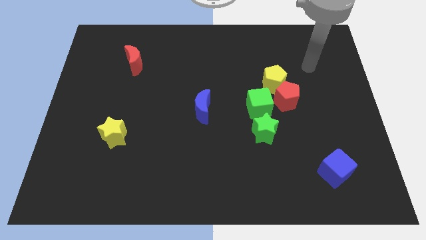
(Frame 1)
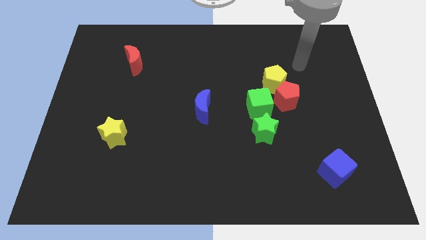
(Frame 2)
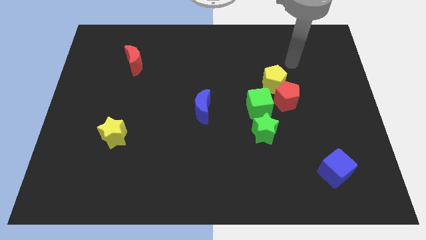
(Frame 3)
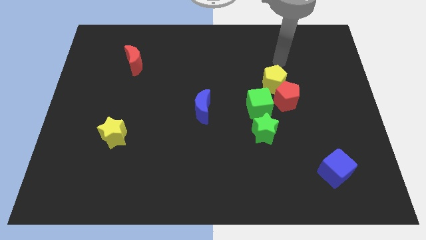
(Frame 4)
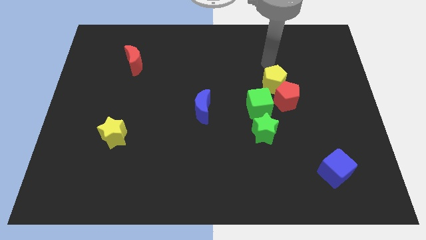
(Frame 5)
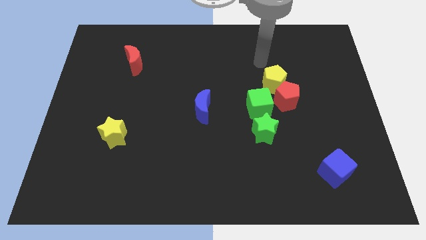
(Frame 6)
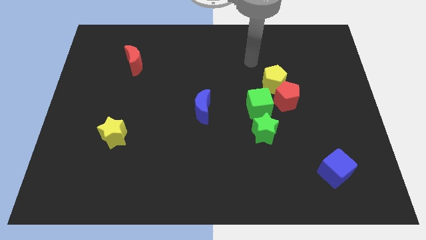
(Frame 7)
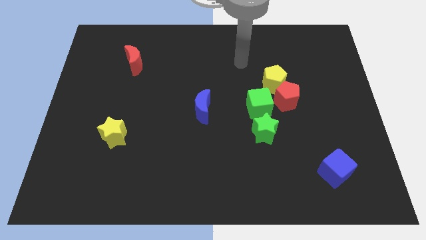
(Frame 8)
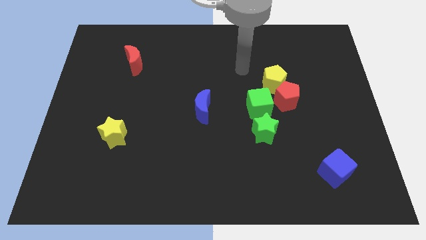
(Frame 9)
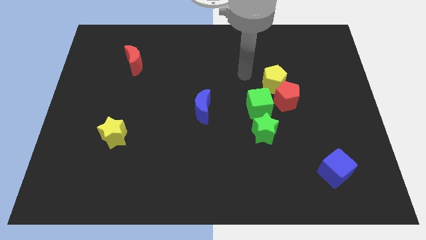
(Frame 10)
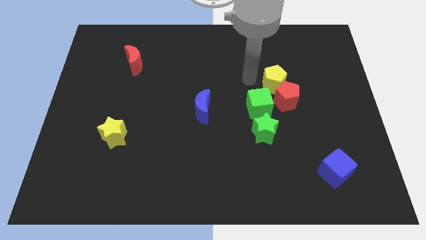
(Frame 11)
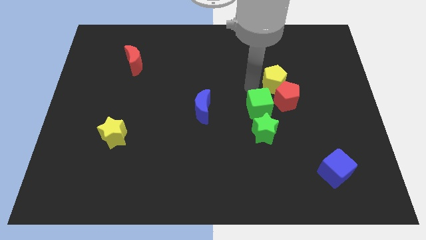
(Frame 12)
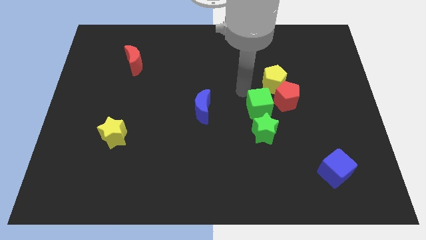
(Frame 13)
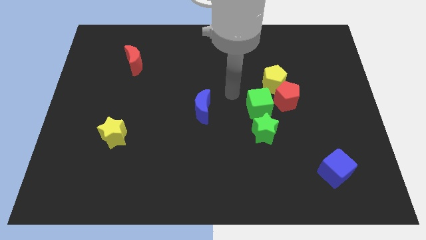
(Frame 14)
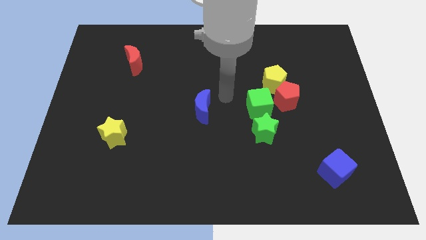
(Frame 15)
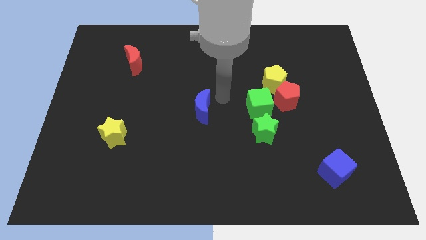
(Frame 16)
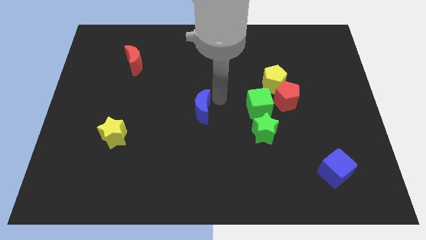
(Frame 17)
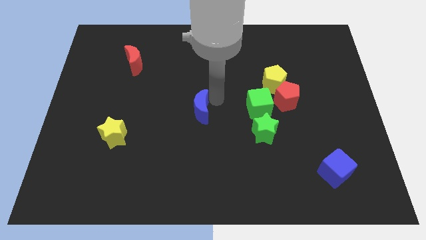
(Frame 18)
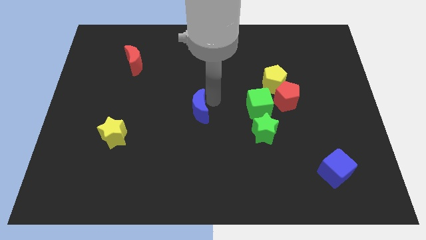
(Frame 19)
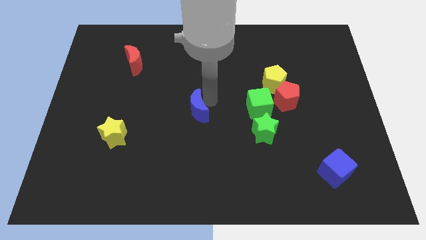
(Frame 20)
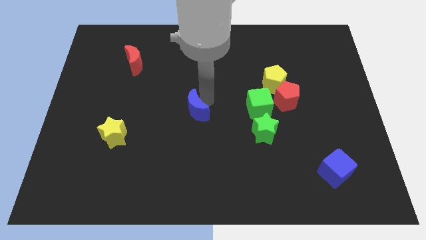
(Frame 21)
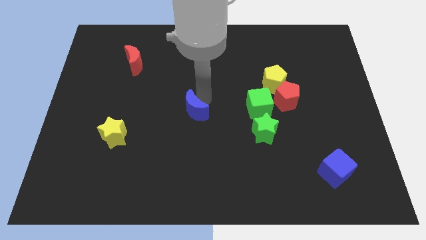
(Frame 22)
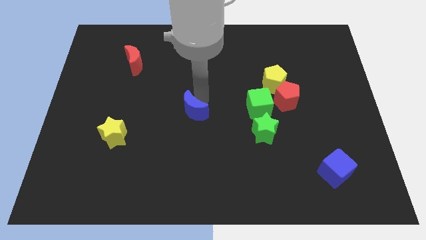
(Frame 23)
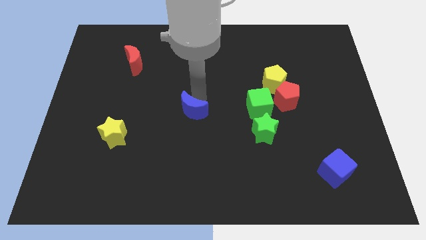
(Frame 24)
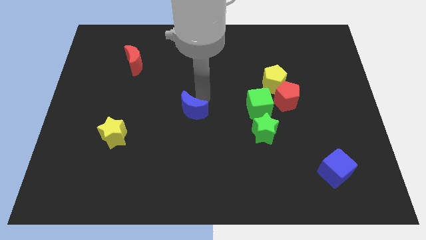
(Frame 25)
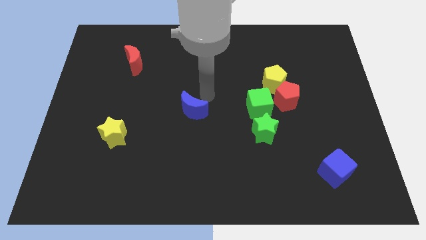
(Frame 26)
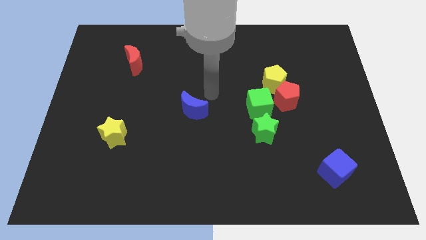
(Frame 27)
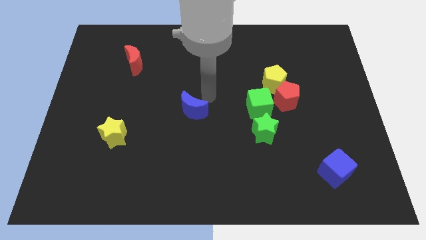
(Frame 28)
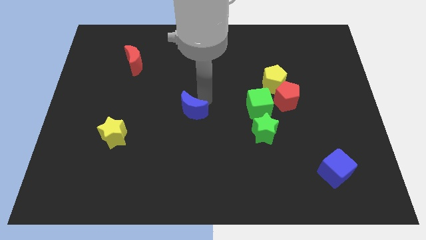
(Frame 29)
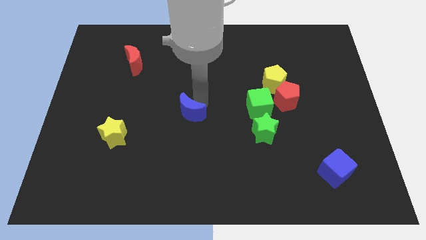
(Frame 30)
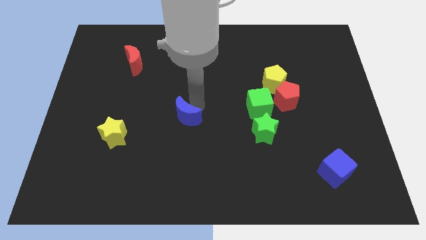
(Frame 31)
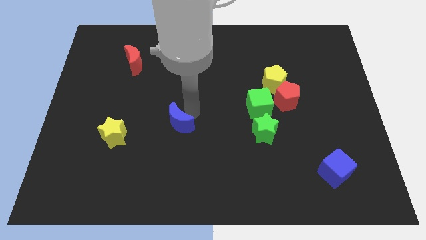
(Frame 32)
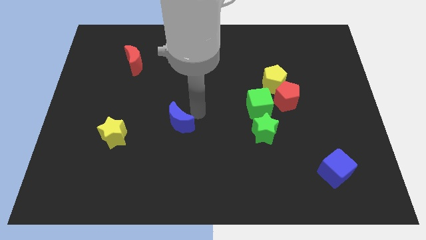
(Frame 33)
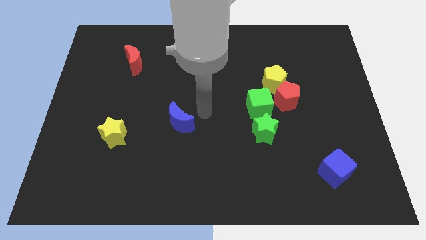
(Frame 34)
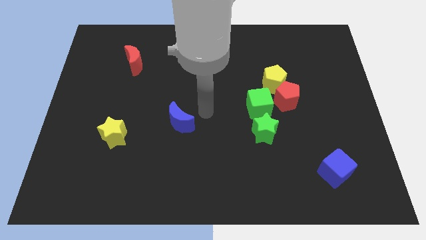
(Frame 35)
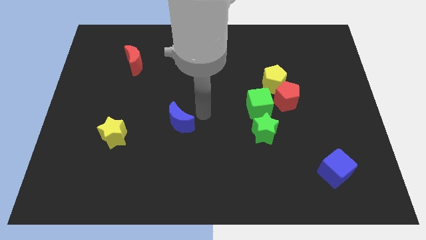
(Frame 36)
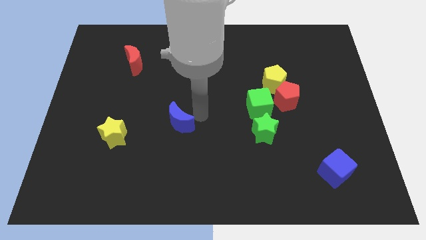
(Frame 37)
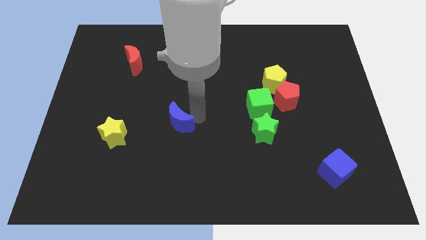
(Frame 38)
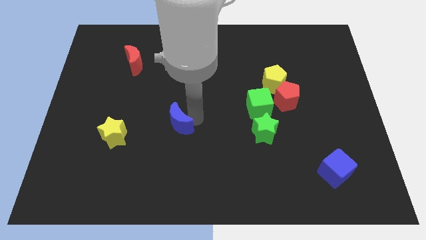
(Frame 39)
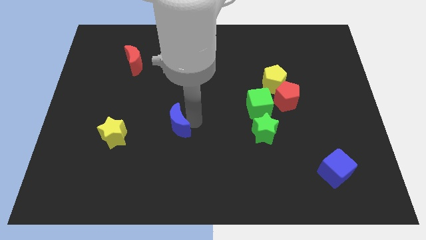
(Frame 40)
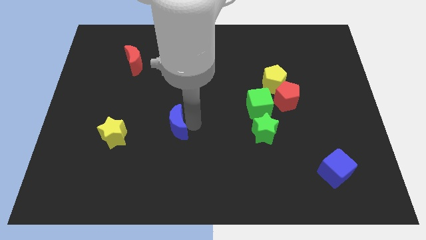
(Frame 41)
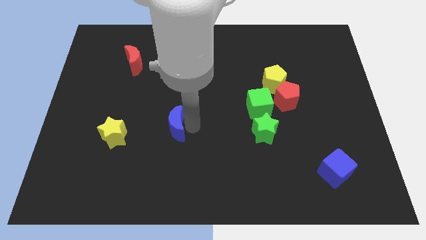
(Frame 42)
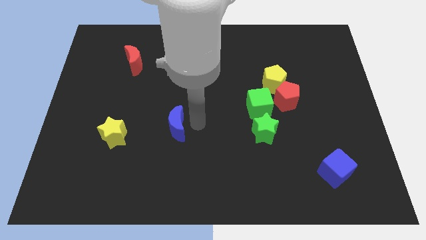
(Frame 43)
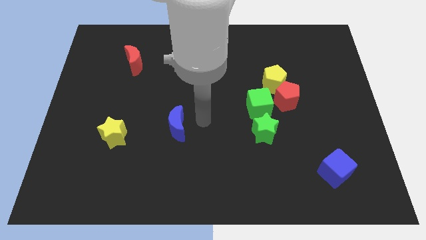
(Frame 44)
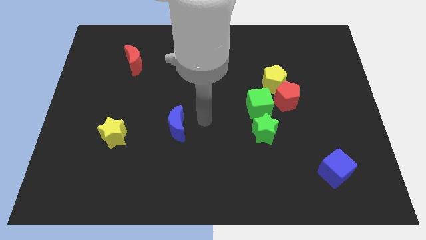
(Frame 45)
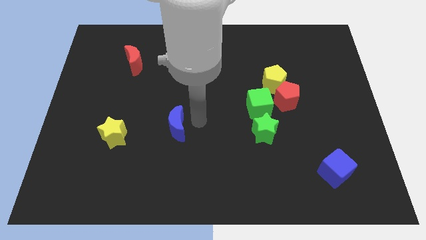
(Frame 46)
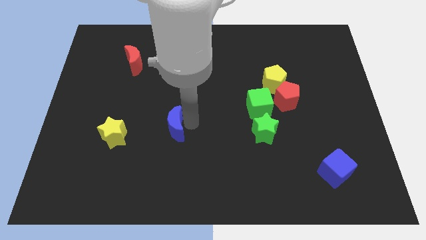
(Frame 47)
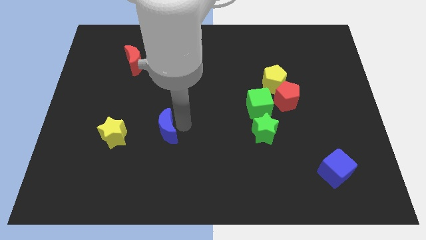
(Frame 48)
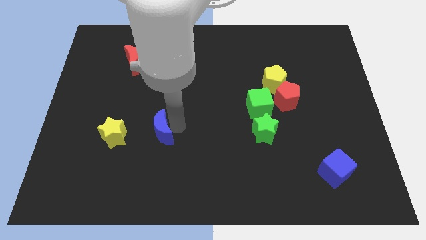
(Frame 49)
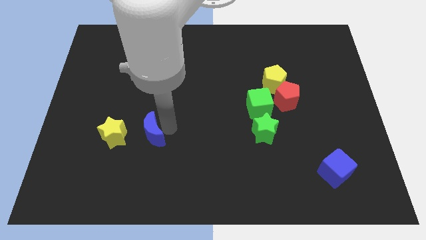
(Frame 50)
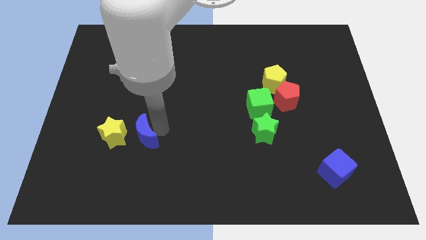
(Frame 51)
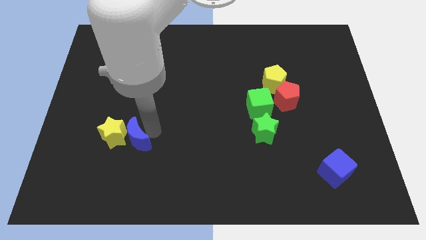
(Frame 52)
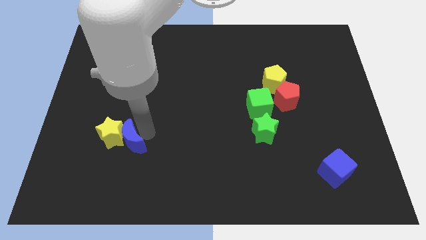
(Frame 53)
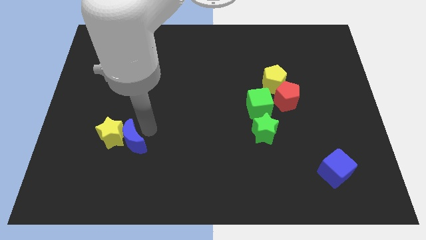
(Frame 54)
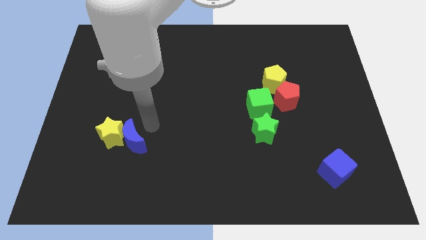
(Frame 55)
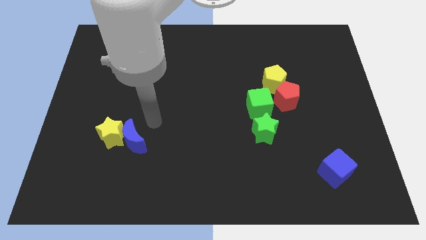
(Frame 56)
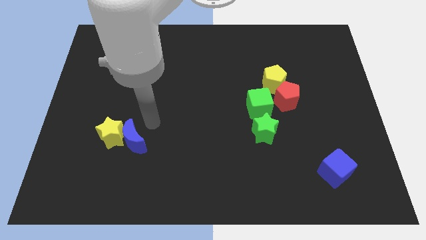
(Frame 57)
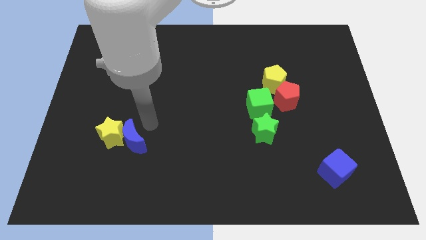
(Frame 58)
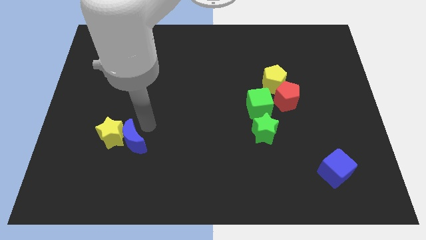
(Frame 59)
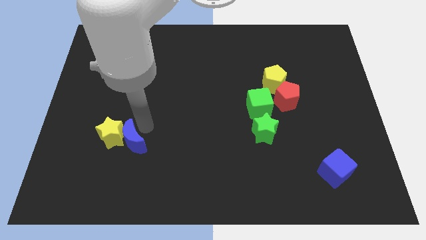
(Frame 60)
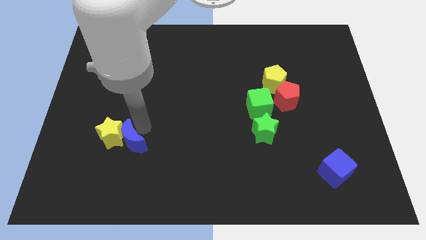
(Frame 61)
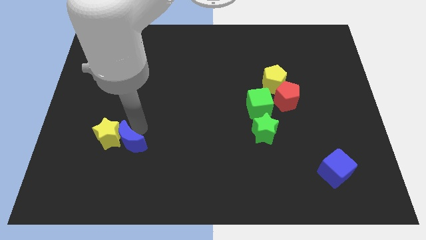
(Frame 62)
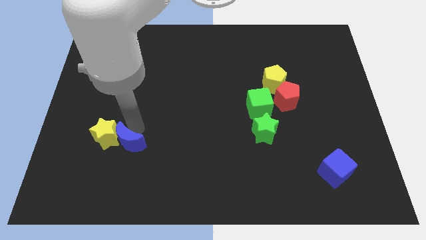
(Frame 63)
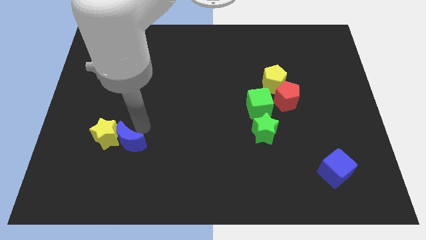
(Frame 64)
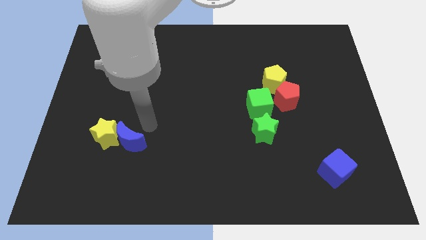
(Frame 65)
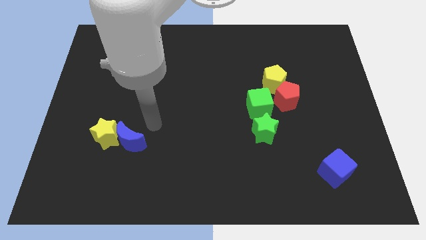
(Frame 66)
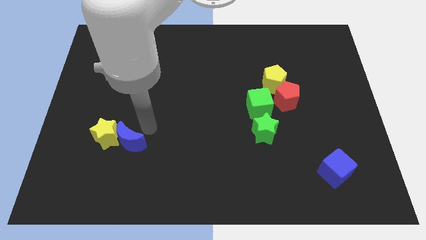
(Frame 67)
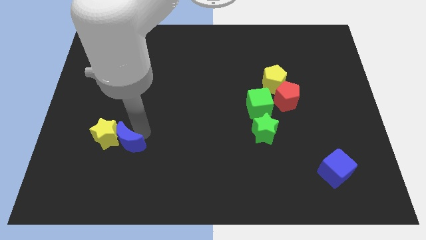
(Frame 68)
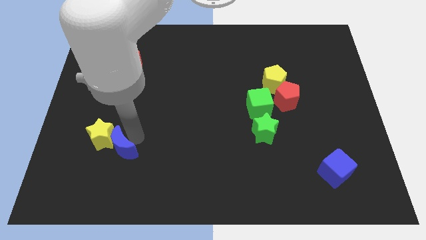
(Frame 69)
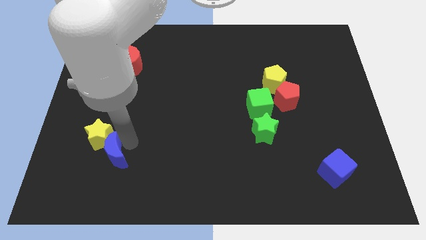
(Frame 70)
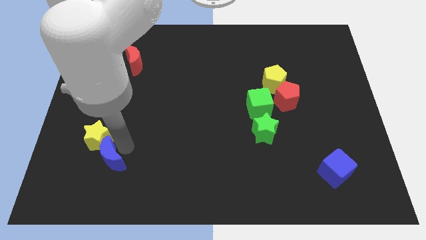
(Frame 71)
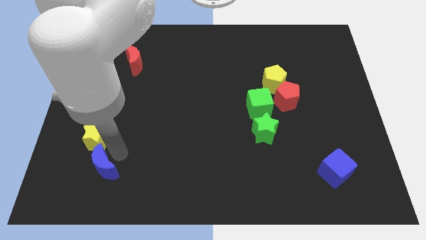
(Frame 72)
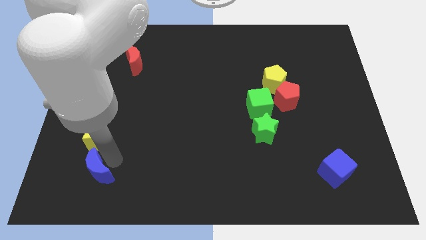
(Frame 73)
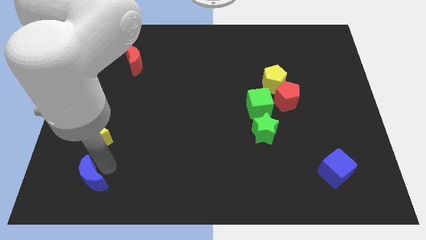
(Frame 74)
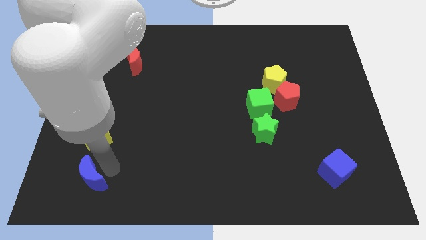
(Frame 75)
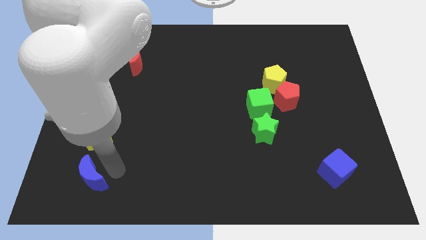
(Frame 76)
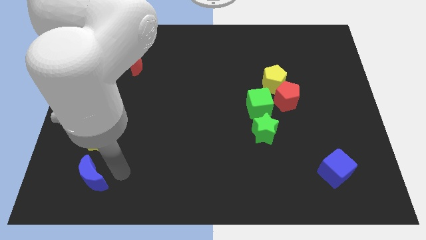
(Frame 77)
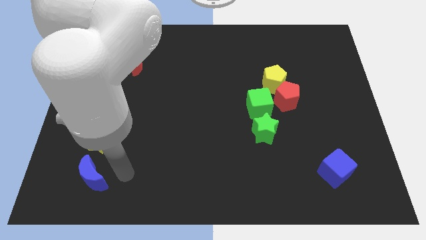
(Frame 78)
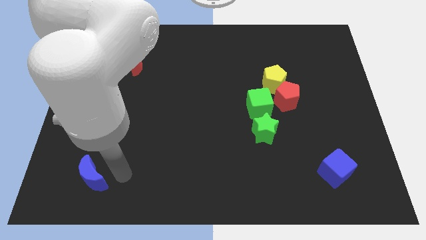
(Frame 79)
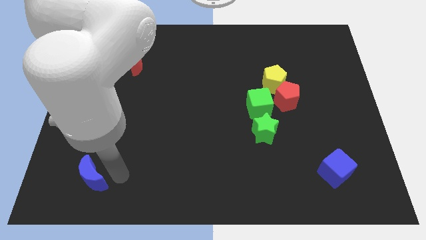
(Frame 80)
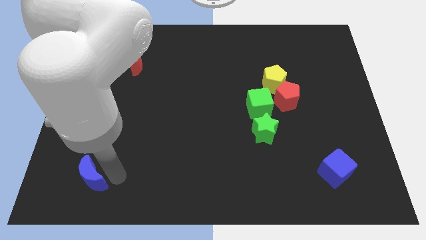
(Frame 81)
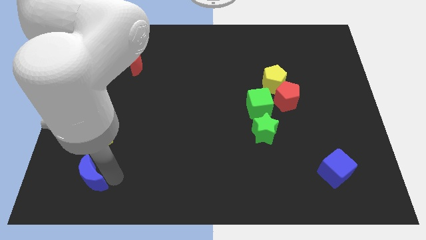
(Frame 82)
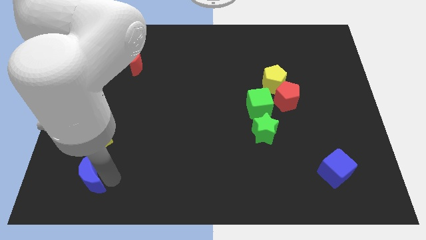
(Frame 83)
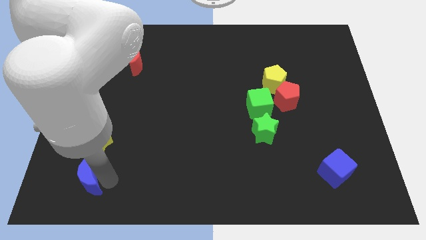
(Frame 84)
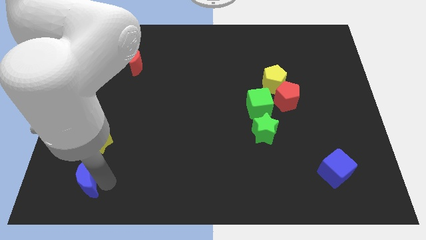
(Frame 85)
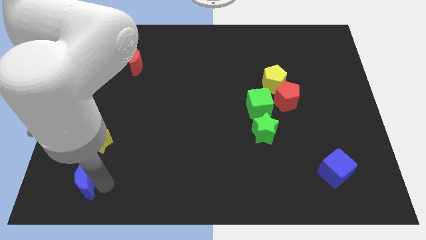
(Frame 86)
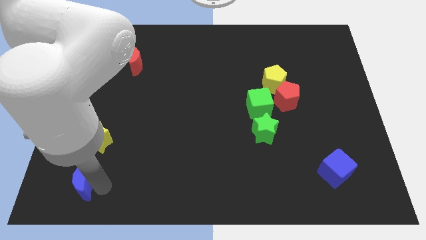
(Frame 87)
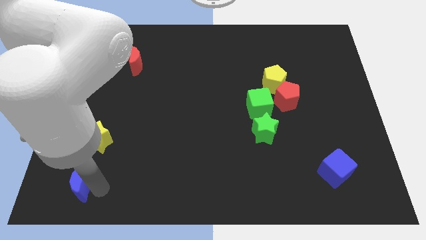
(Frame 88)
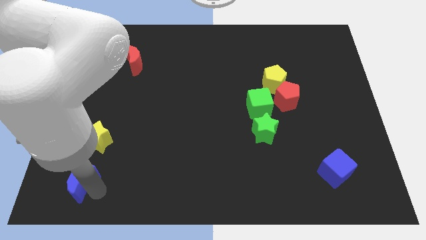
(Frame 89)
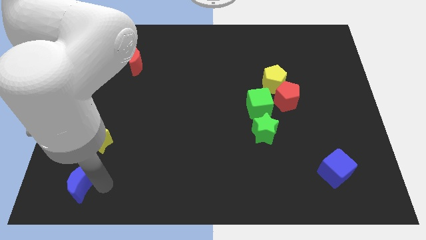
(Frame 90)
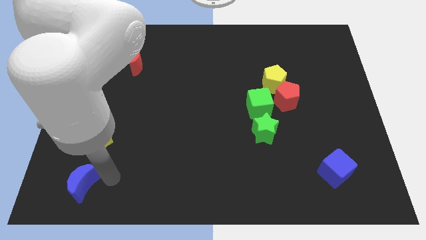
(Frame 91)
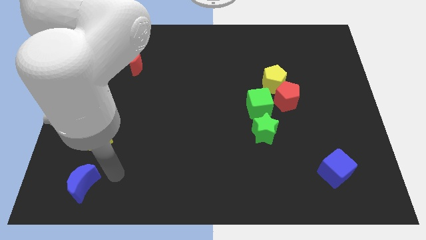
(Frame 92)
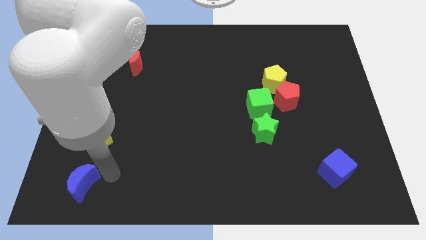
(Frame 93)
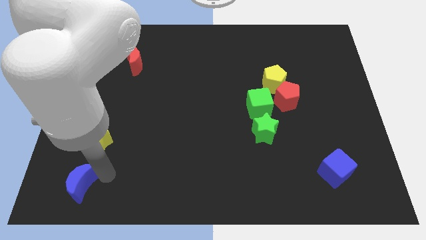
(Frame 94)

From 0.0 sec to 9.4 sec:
put the blue moon to the lower left corner
